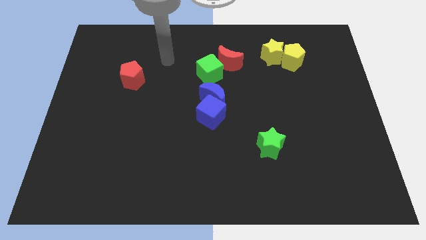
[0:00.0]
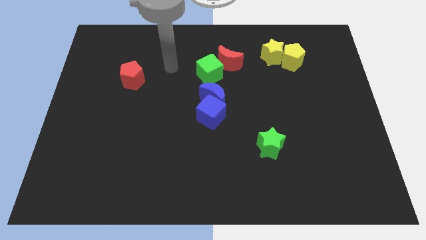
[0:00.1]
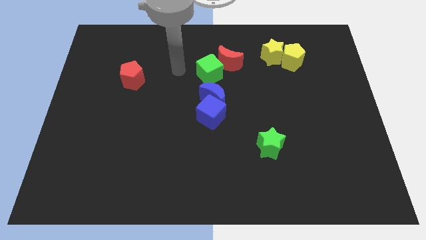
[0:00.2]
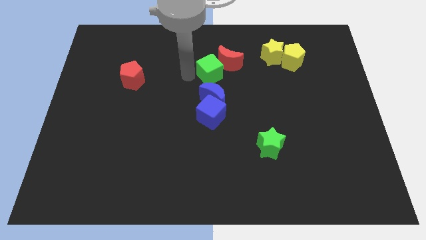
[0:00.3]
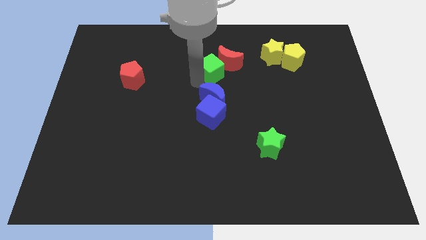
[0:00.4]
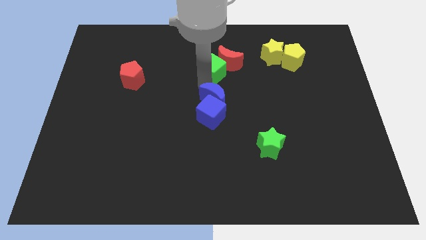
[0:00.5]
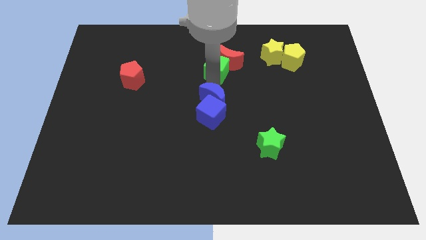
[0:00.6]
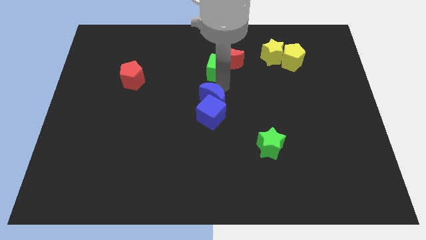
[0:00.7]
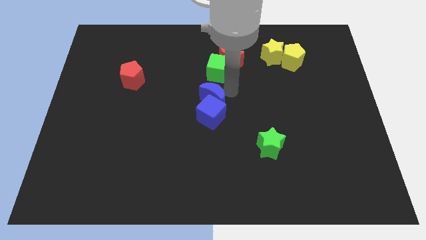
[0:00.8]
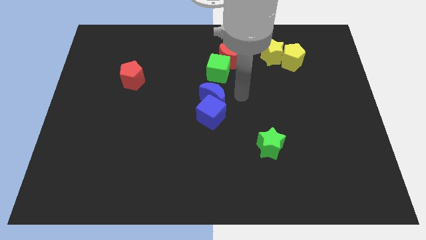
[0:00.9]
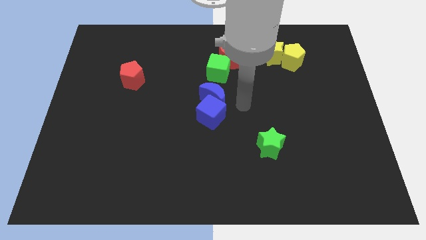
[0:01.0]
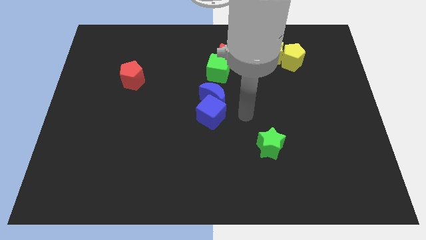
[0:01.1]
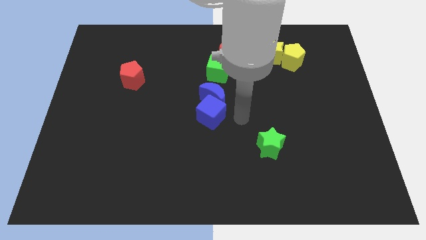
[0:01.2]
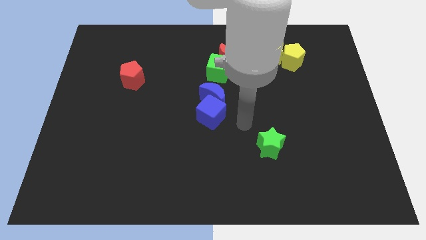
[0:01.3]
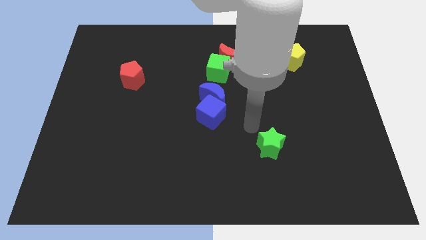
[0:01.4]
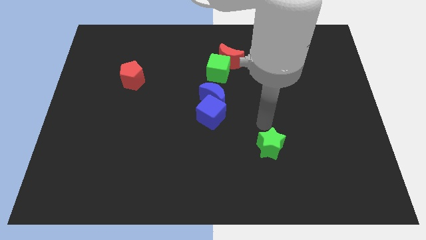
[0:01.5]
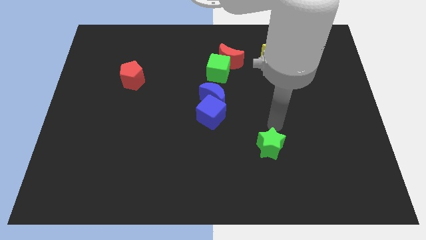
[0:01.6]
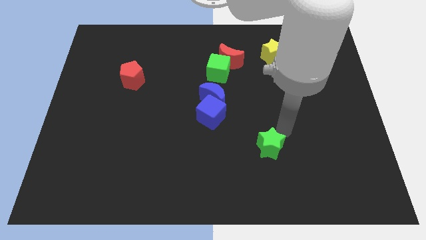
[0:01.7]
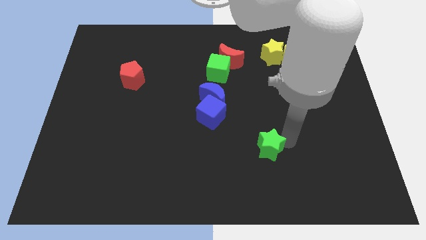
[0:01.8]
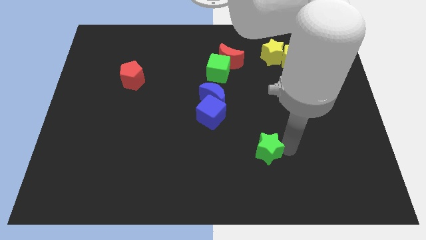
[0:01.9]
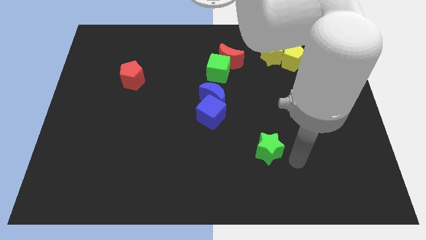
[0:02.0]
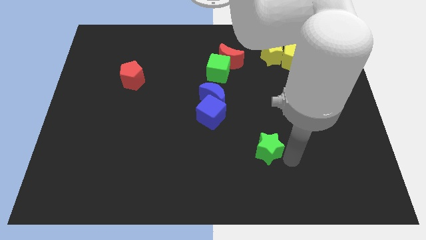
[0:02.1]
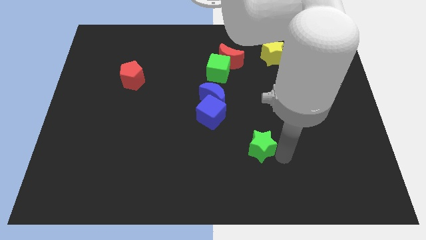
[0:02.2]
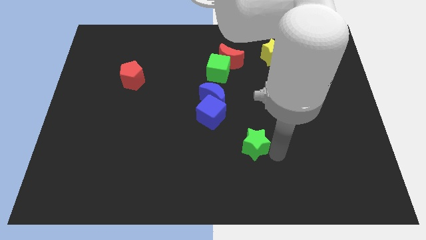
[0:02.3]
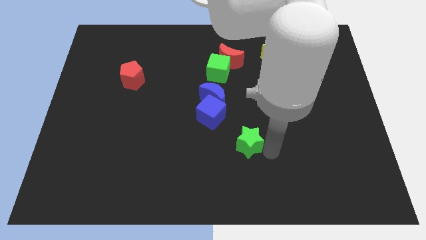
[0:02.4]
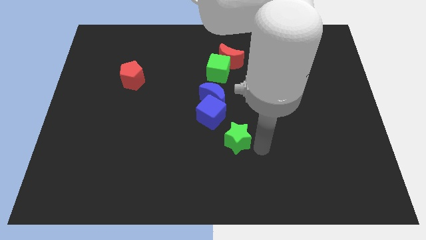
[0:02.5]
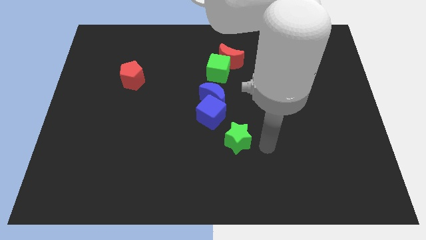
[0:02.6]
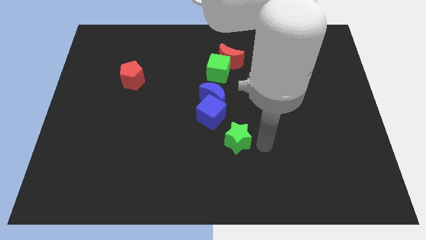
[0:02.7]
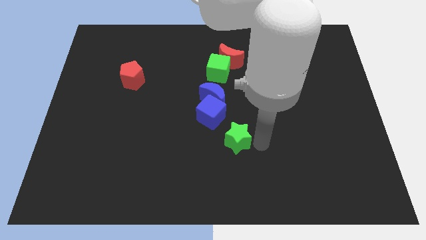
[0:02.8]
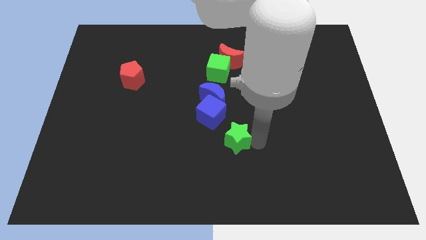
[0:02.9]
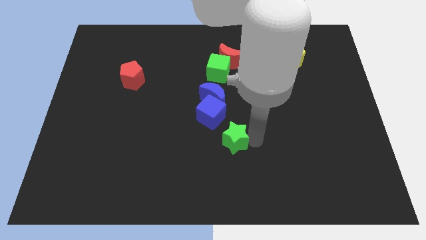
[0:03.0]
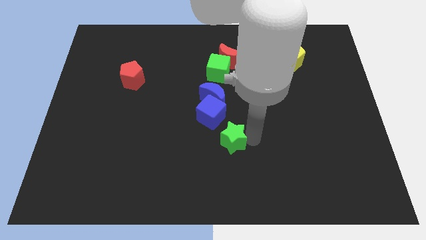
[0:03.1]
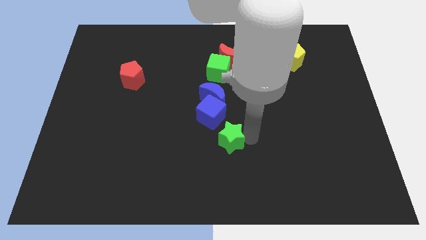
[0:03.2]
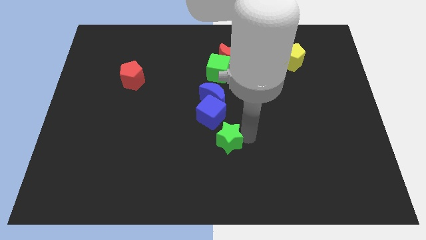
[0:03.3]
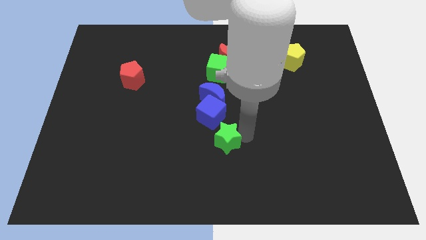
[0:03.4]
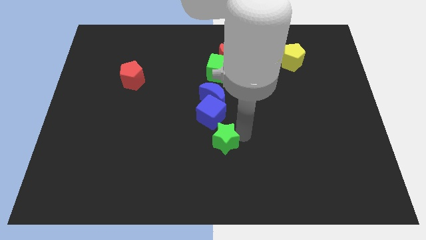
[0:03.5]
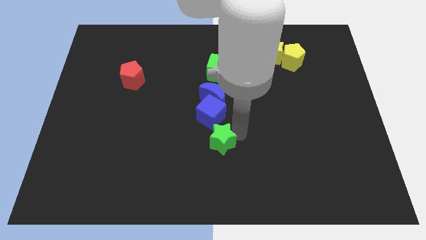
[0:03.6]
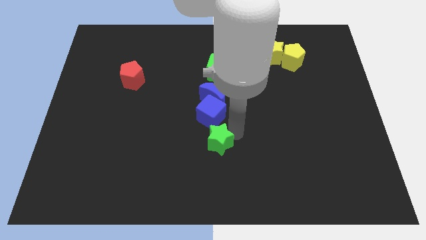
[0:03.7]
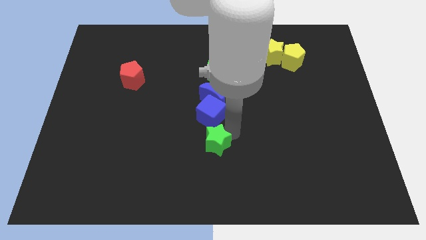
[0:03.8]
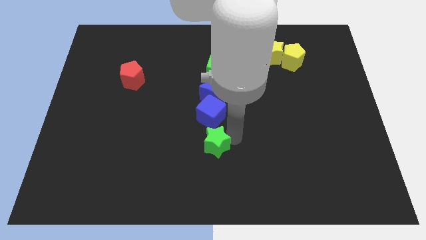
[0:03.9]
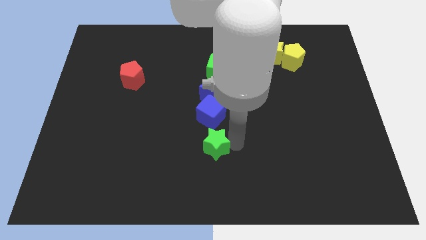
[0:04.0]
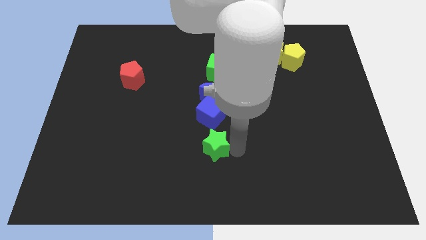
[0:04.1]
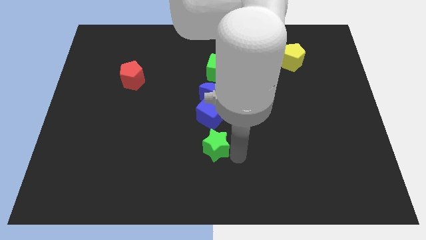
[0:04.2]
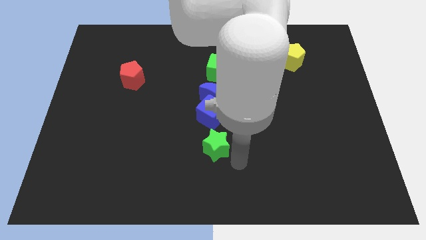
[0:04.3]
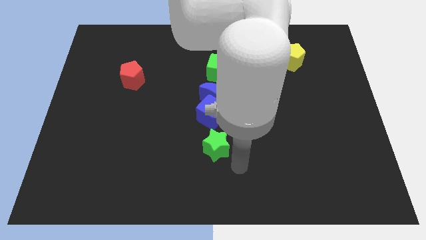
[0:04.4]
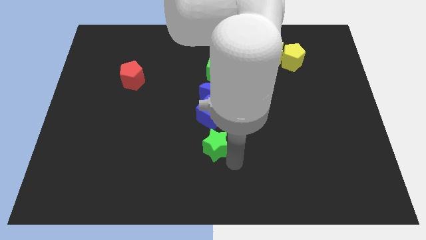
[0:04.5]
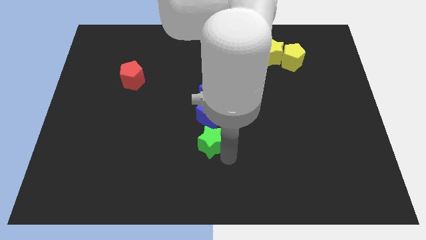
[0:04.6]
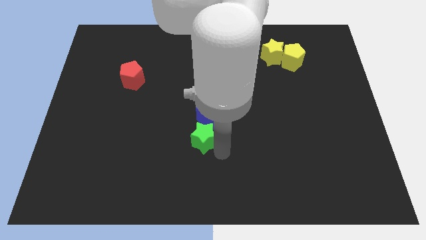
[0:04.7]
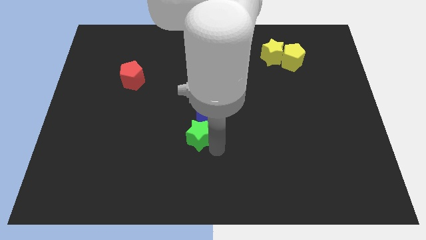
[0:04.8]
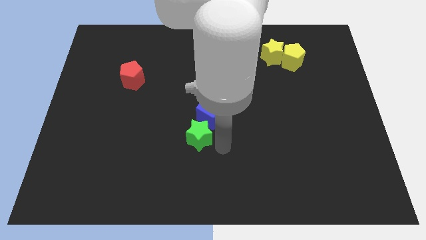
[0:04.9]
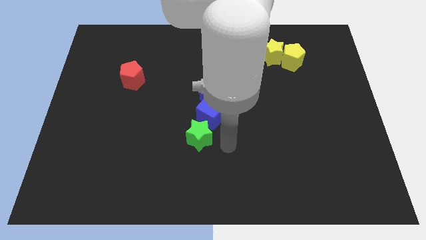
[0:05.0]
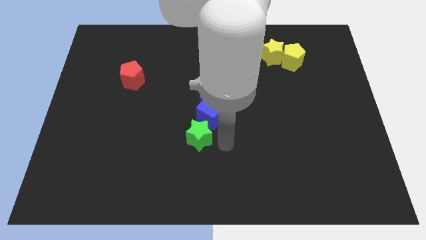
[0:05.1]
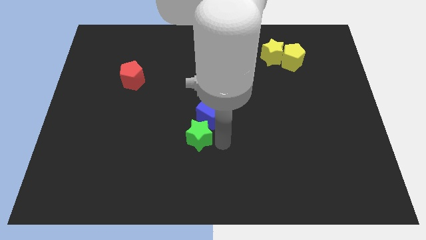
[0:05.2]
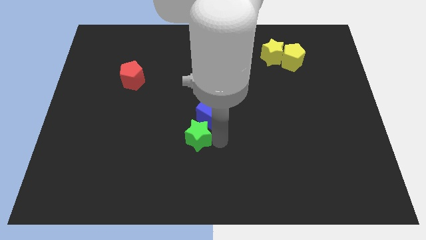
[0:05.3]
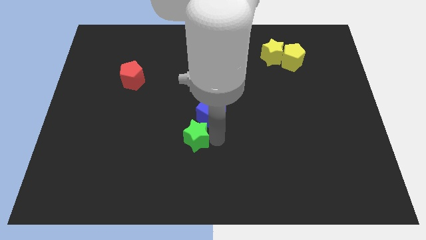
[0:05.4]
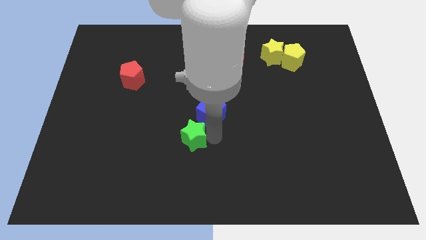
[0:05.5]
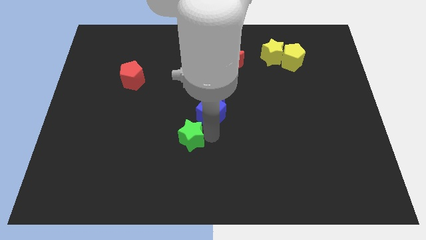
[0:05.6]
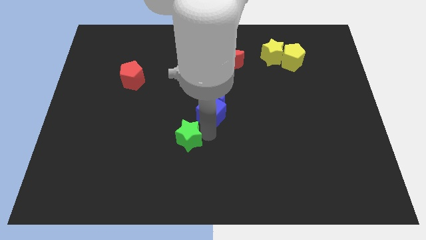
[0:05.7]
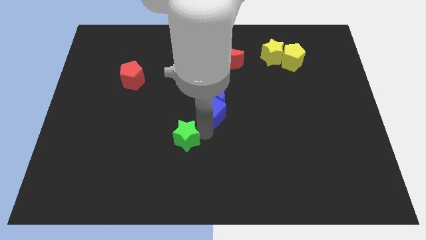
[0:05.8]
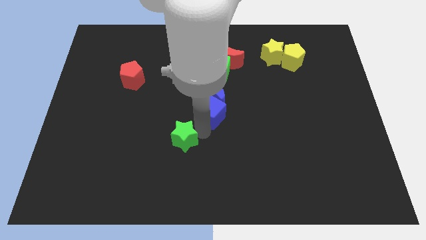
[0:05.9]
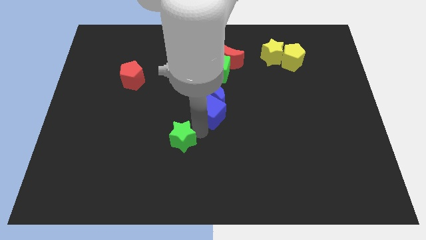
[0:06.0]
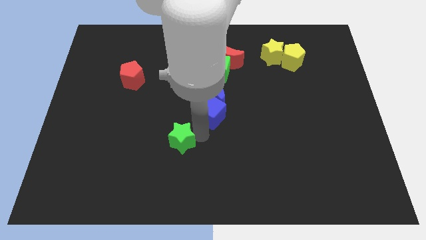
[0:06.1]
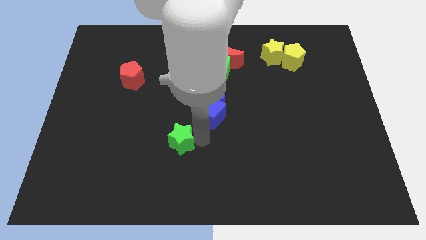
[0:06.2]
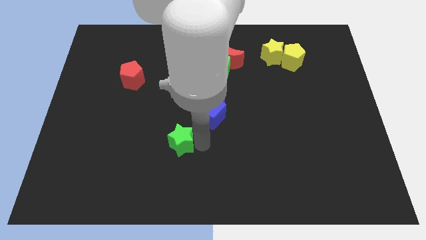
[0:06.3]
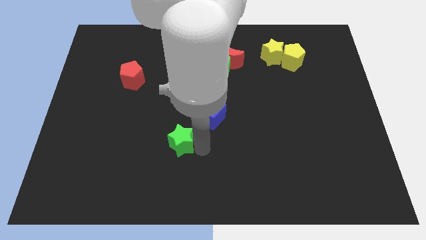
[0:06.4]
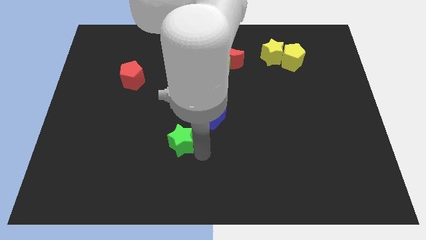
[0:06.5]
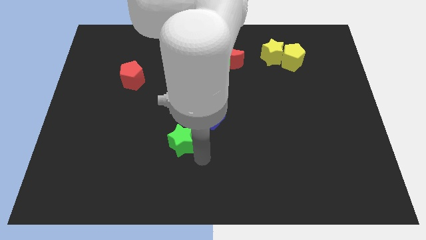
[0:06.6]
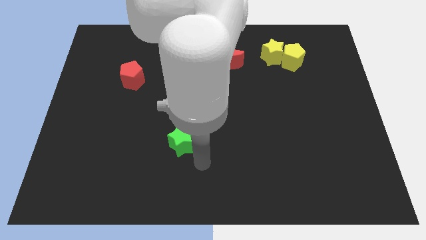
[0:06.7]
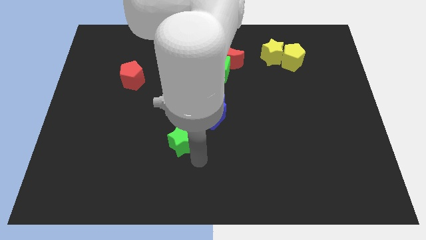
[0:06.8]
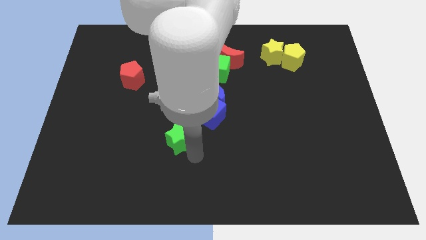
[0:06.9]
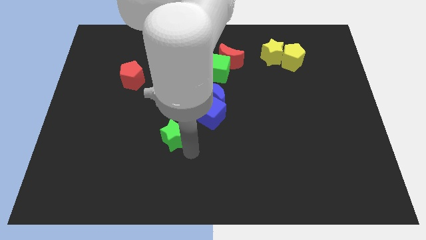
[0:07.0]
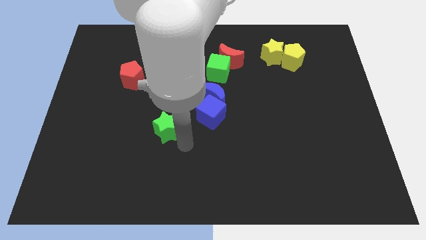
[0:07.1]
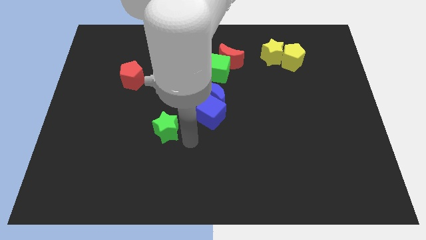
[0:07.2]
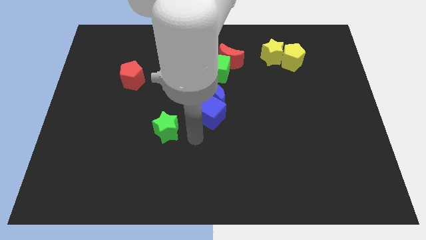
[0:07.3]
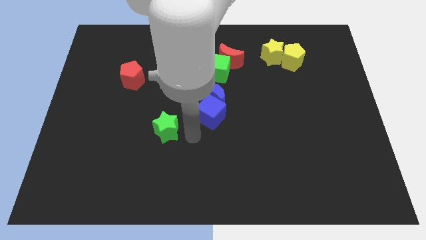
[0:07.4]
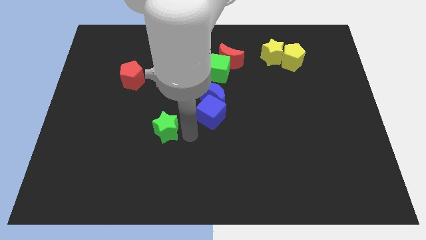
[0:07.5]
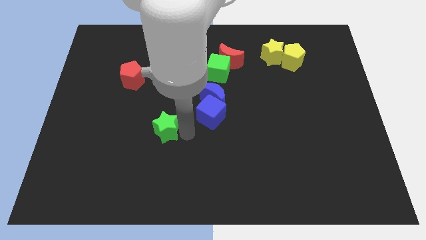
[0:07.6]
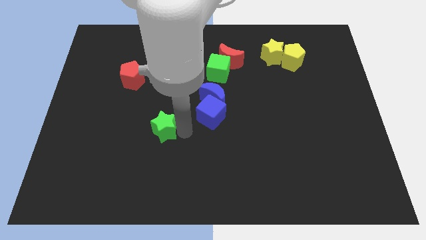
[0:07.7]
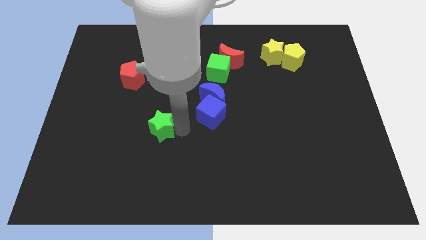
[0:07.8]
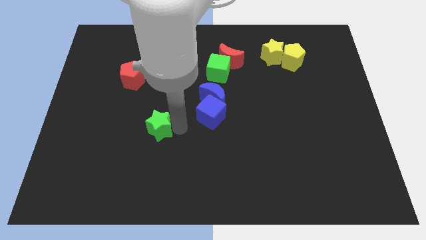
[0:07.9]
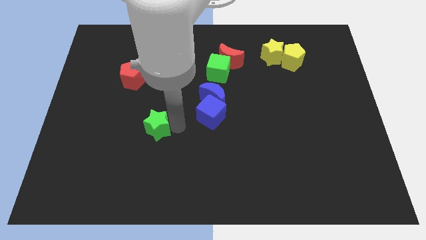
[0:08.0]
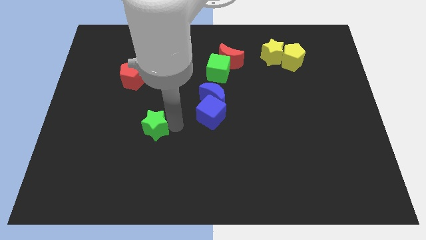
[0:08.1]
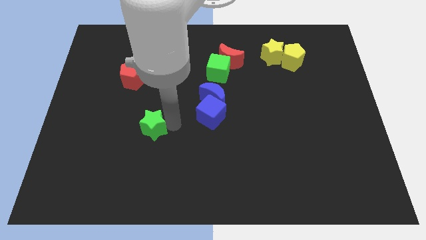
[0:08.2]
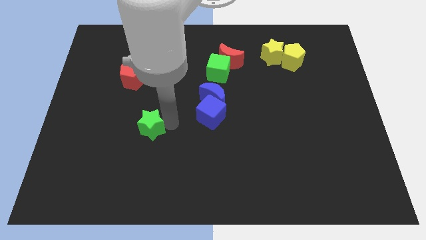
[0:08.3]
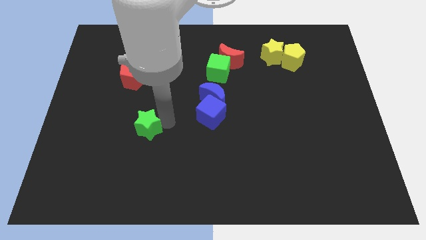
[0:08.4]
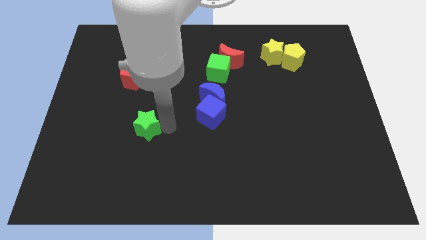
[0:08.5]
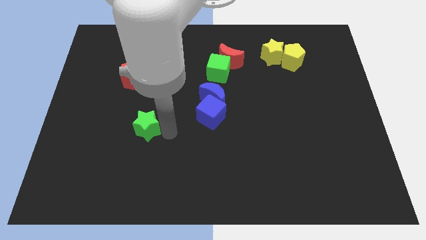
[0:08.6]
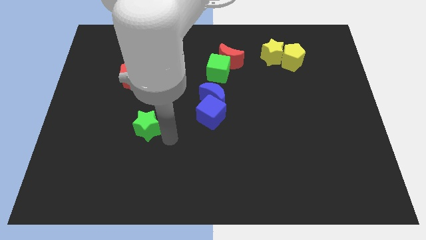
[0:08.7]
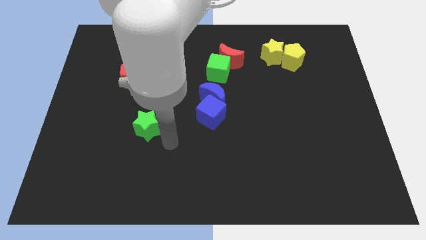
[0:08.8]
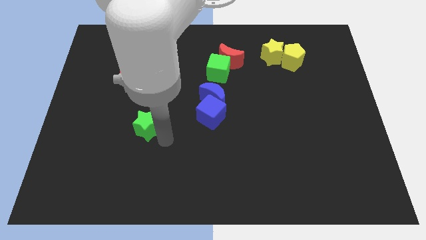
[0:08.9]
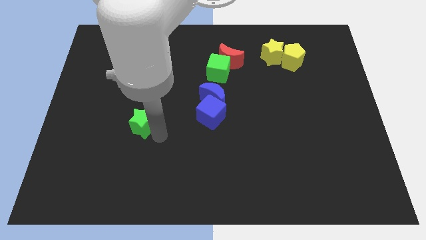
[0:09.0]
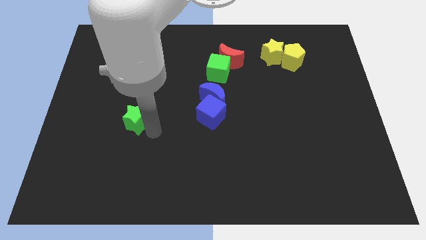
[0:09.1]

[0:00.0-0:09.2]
put the green star below the red pentagon
